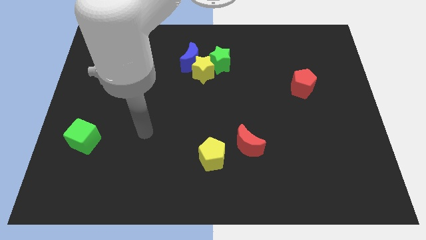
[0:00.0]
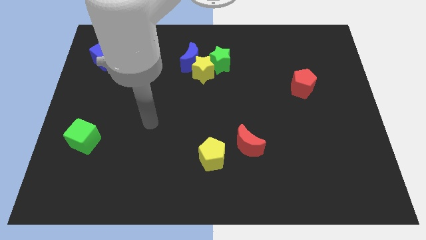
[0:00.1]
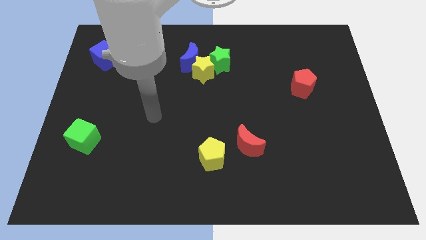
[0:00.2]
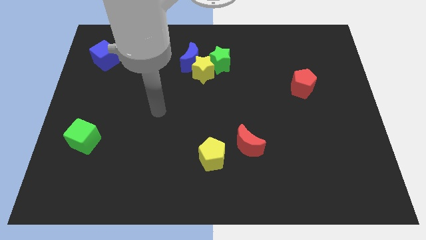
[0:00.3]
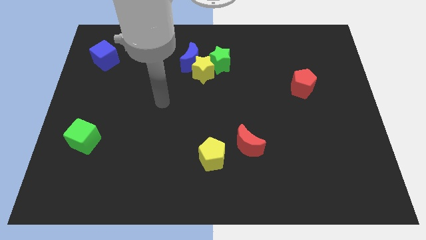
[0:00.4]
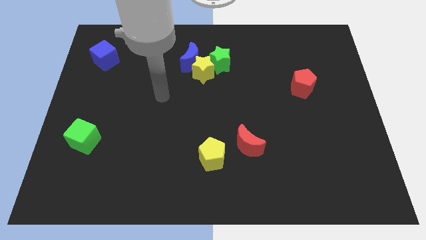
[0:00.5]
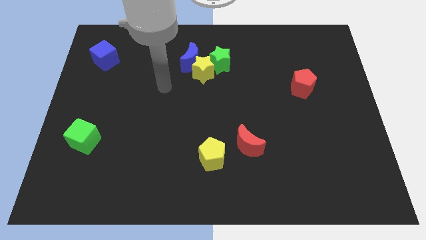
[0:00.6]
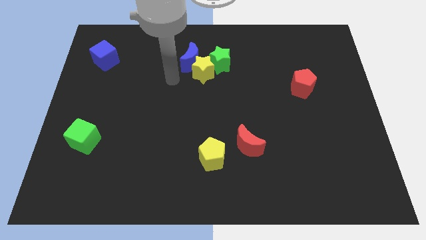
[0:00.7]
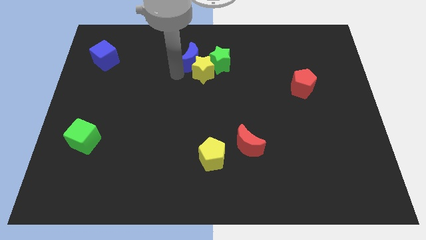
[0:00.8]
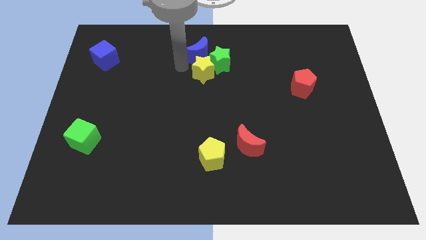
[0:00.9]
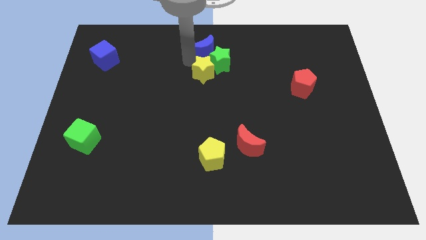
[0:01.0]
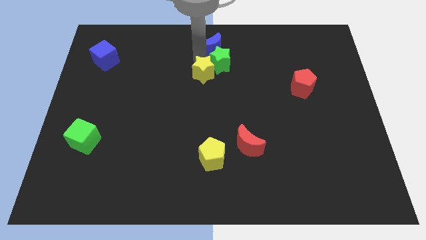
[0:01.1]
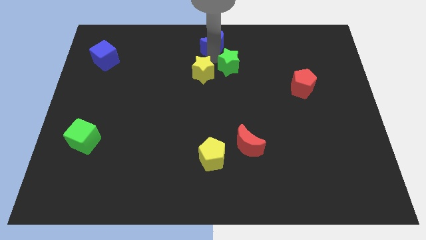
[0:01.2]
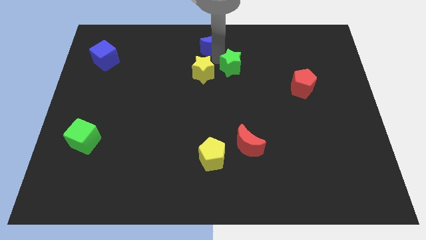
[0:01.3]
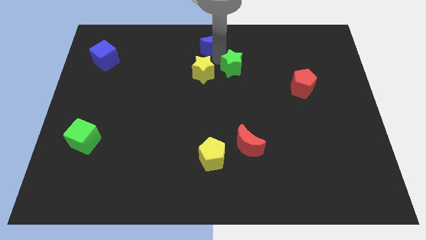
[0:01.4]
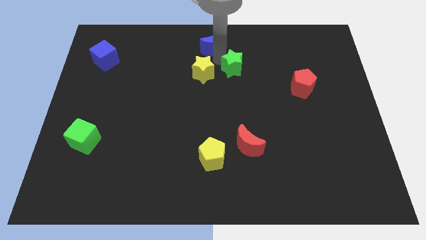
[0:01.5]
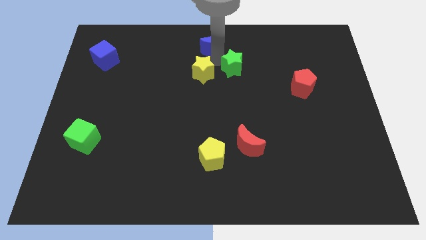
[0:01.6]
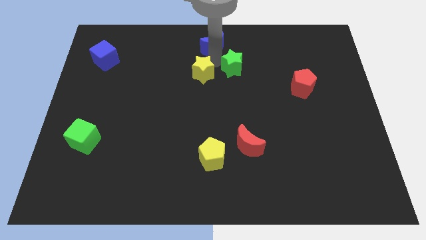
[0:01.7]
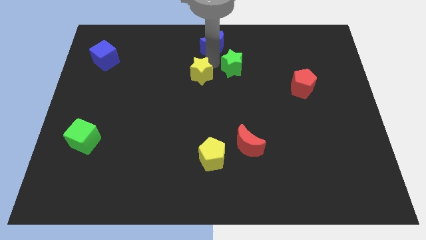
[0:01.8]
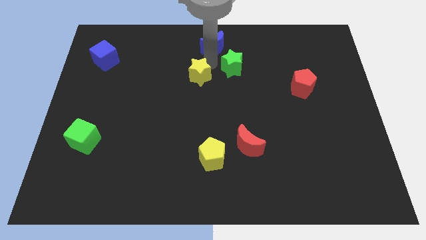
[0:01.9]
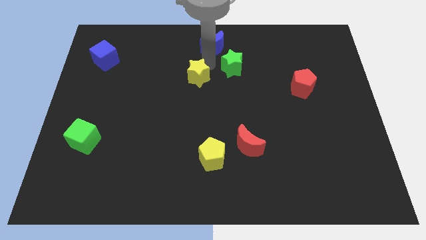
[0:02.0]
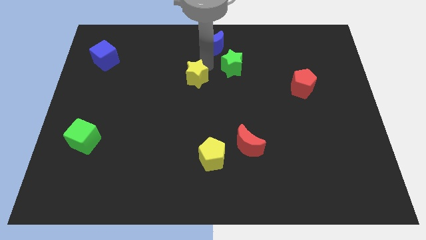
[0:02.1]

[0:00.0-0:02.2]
separate the yellow star from the blue moon and green star

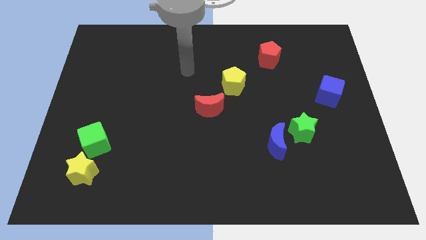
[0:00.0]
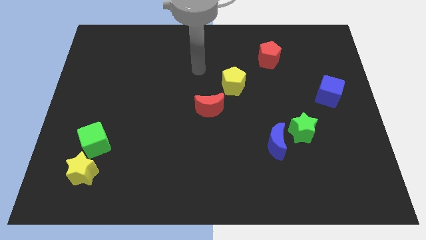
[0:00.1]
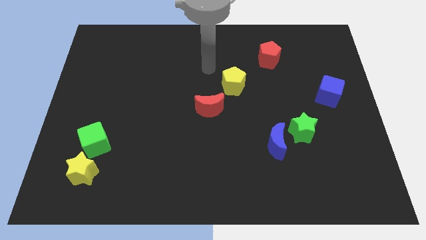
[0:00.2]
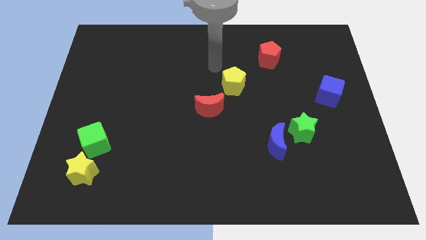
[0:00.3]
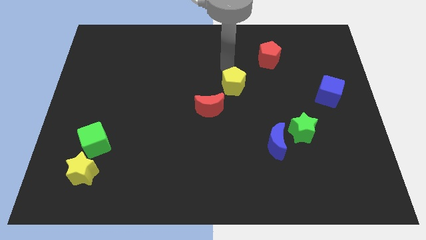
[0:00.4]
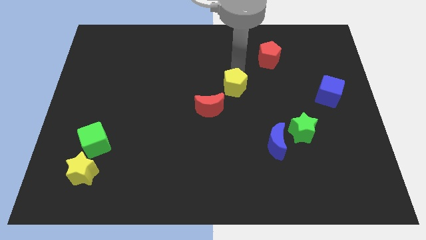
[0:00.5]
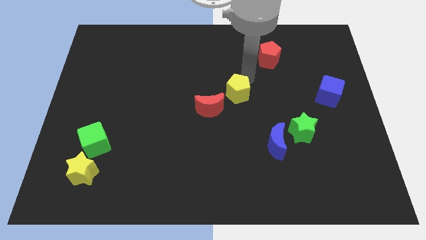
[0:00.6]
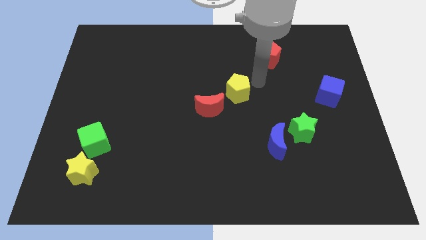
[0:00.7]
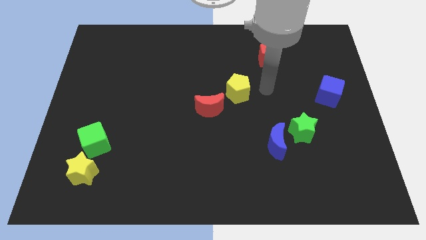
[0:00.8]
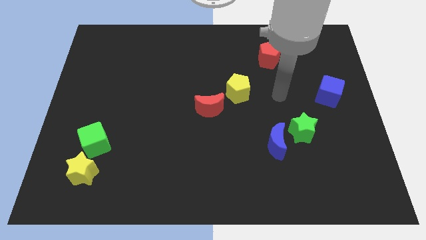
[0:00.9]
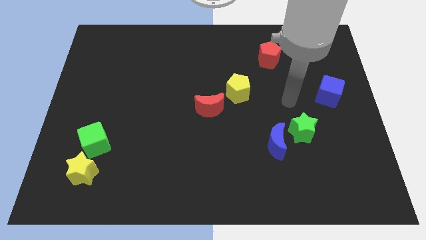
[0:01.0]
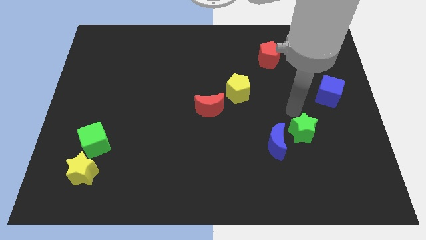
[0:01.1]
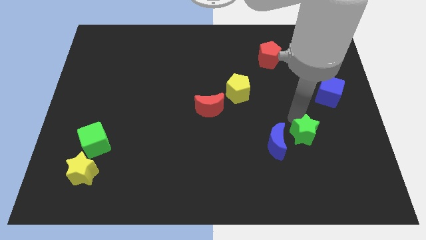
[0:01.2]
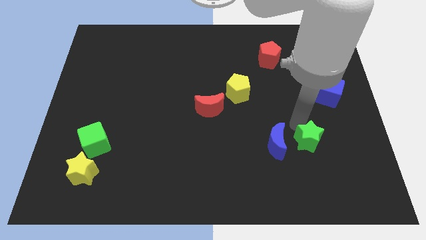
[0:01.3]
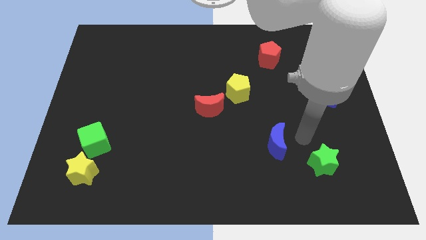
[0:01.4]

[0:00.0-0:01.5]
pull the blue moon apart from the green star

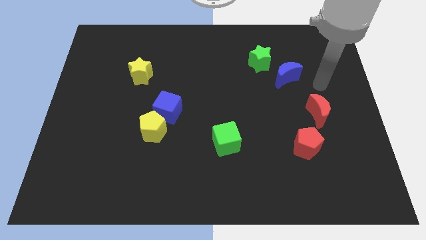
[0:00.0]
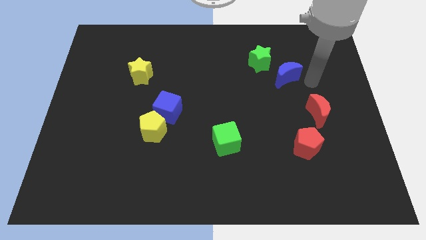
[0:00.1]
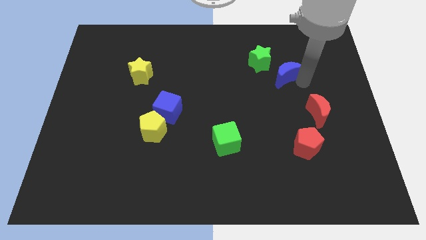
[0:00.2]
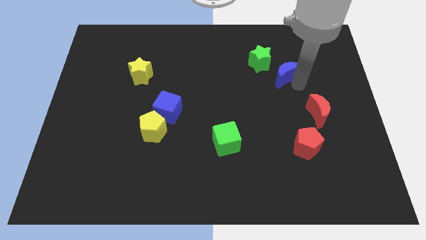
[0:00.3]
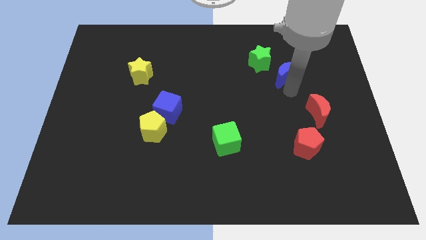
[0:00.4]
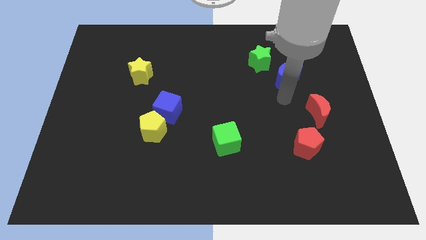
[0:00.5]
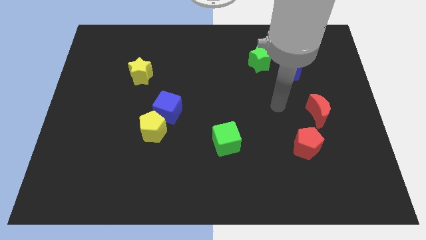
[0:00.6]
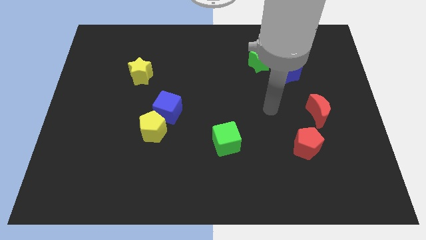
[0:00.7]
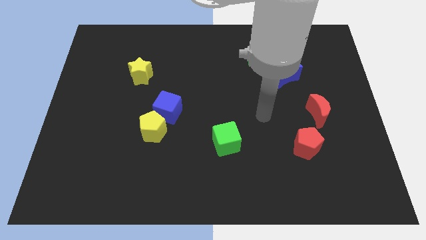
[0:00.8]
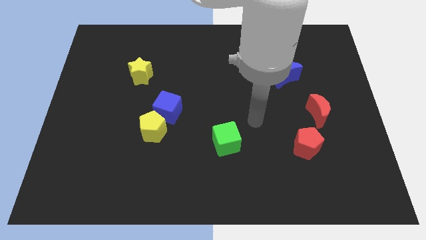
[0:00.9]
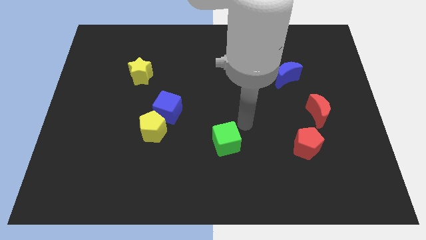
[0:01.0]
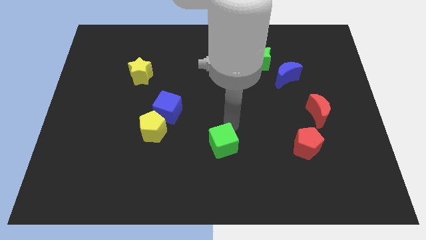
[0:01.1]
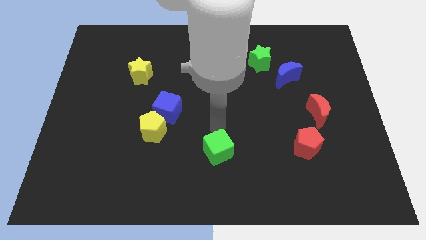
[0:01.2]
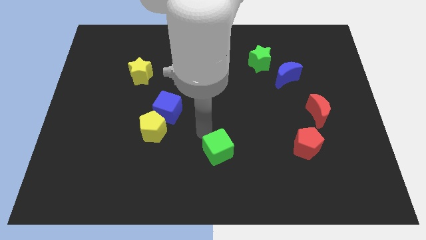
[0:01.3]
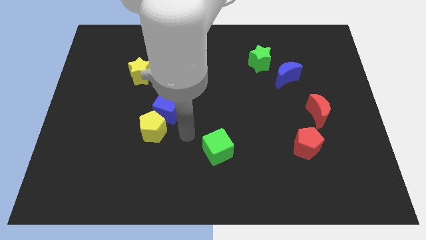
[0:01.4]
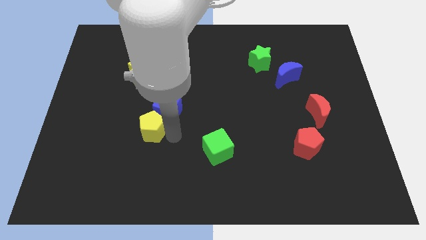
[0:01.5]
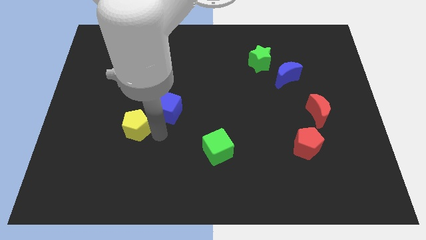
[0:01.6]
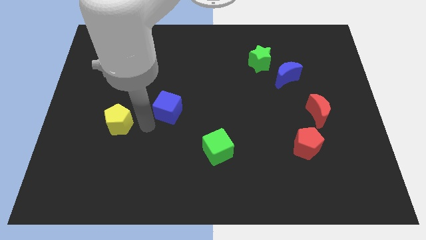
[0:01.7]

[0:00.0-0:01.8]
move the blue cube away from the yellow pentagon

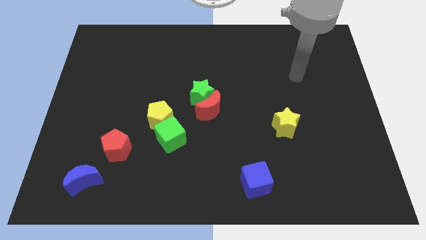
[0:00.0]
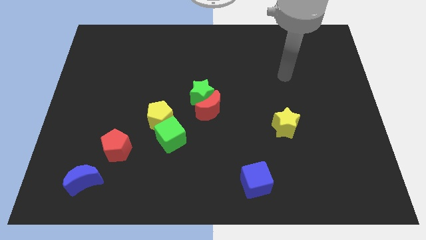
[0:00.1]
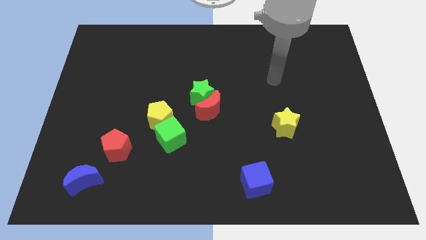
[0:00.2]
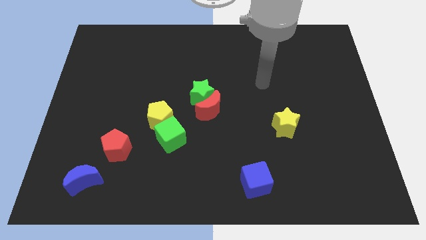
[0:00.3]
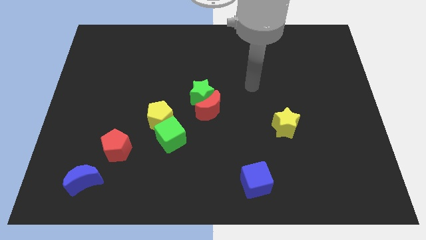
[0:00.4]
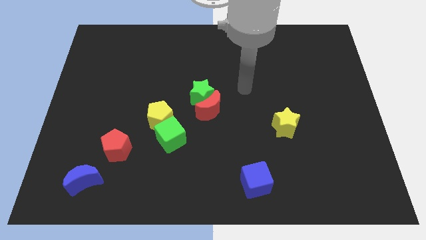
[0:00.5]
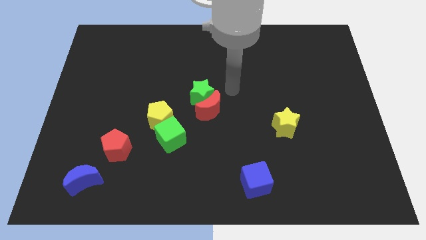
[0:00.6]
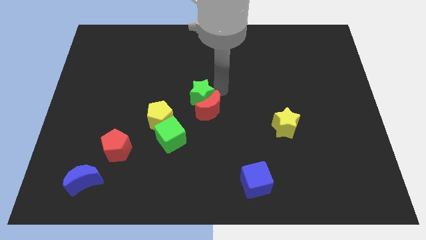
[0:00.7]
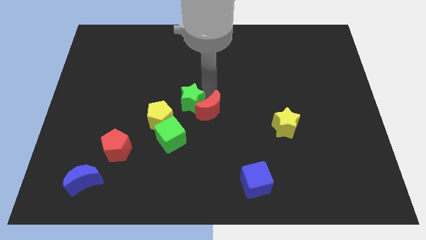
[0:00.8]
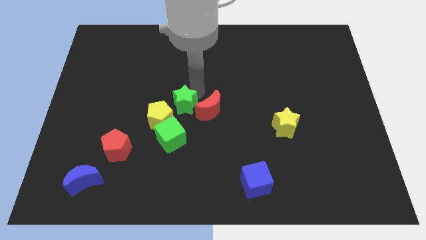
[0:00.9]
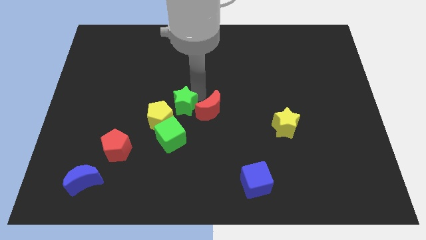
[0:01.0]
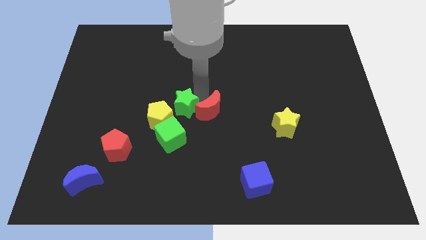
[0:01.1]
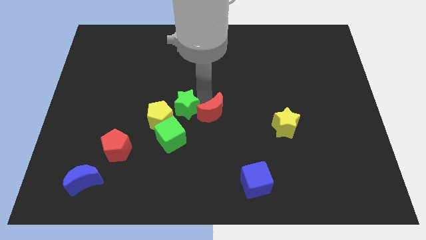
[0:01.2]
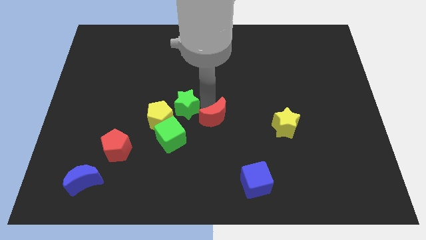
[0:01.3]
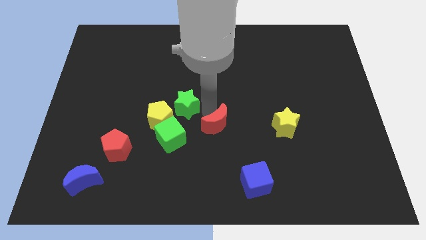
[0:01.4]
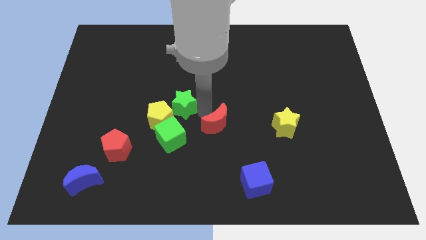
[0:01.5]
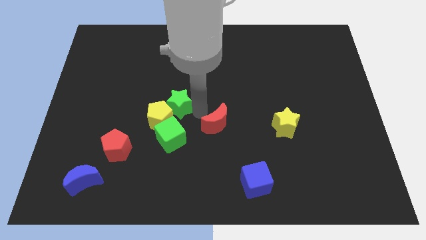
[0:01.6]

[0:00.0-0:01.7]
move the red moon away from the green star

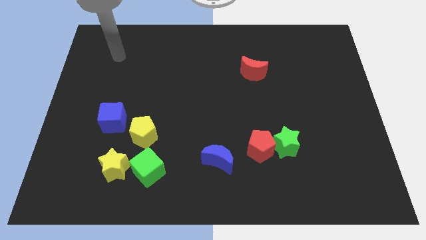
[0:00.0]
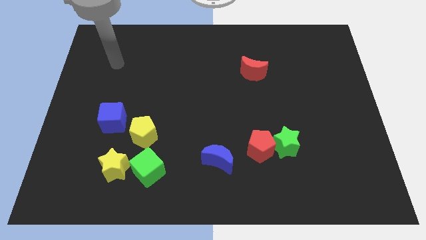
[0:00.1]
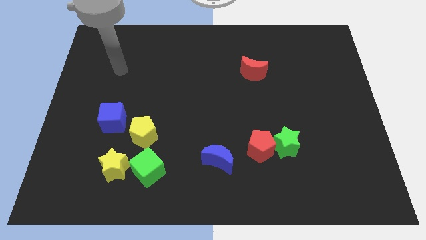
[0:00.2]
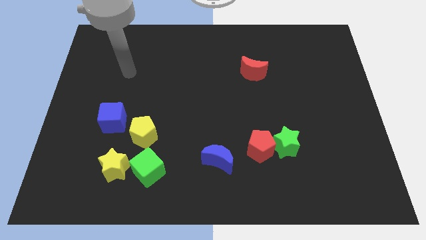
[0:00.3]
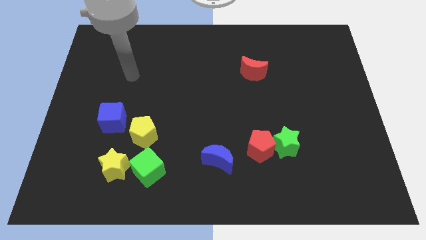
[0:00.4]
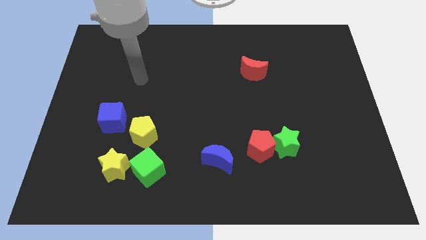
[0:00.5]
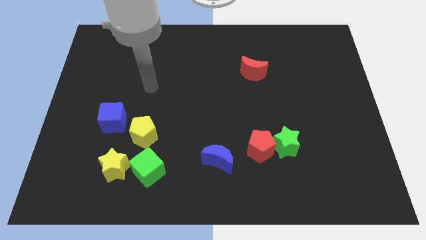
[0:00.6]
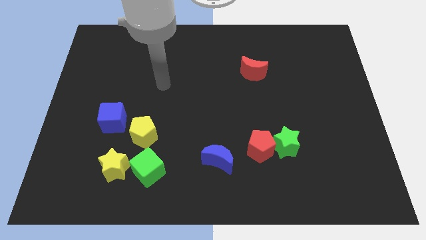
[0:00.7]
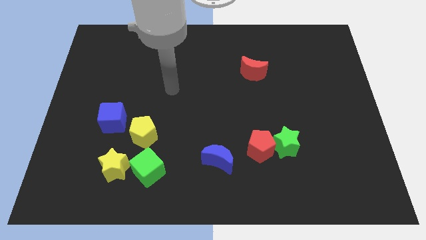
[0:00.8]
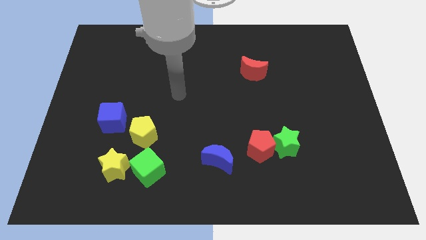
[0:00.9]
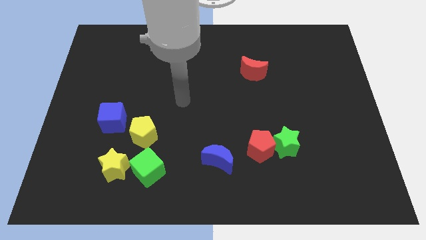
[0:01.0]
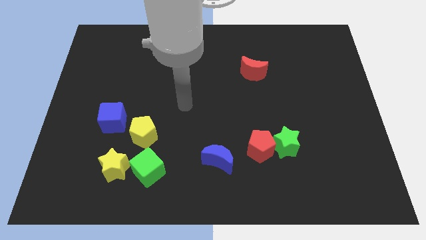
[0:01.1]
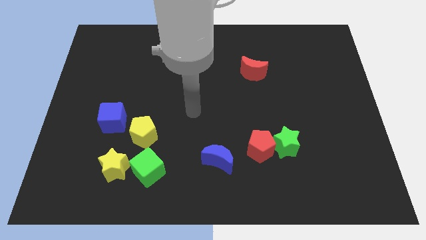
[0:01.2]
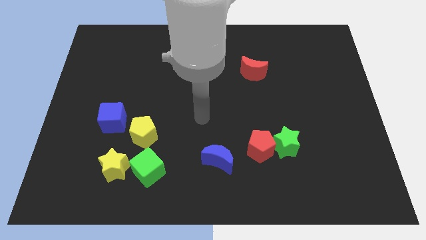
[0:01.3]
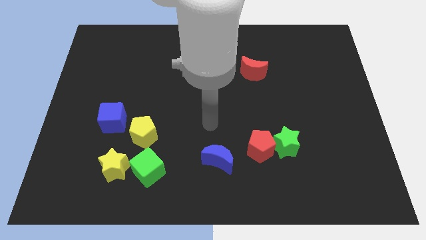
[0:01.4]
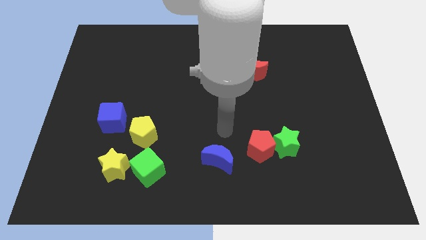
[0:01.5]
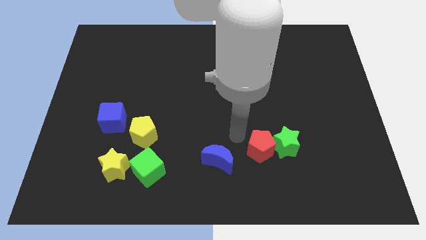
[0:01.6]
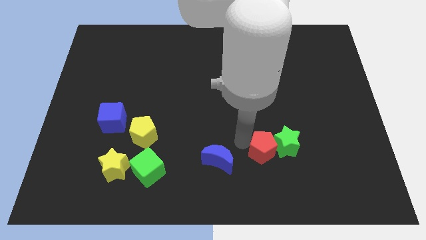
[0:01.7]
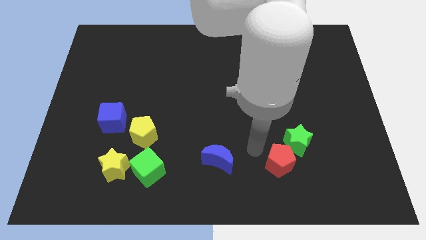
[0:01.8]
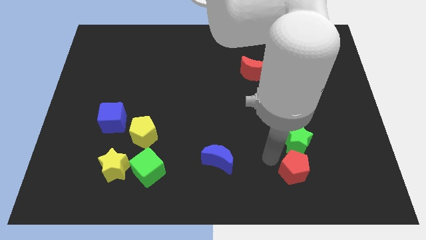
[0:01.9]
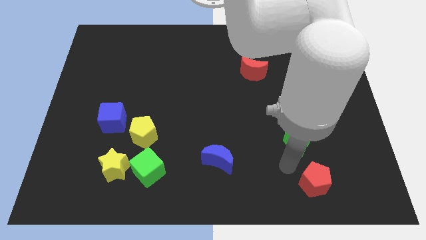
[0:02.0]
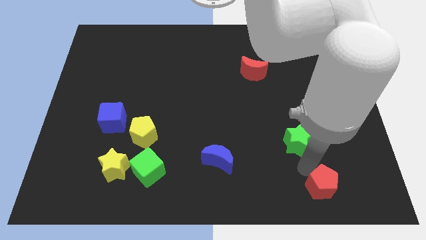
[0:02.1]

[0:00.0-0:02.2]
move the green star away from the red pentagon
